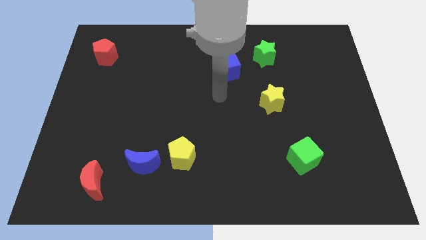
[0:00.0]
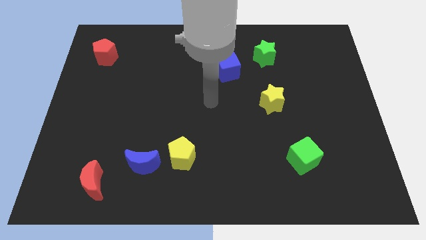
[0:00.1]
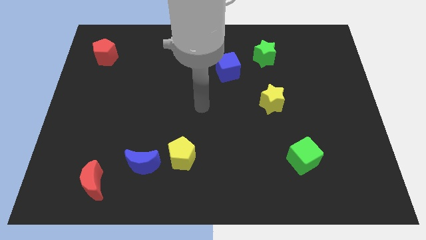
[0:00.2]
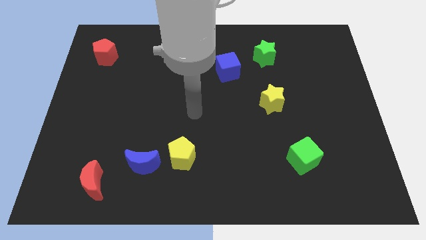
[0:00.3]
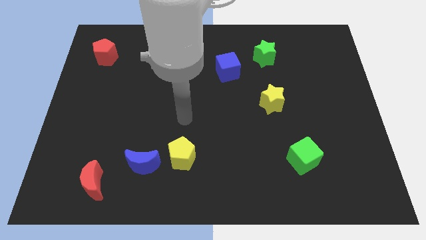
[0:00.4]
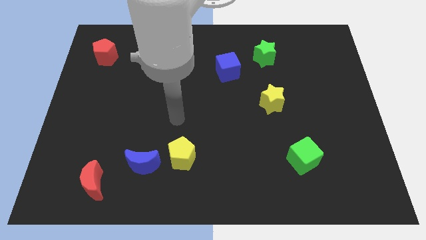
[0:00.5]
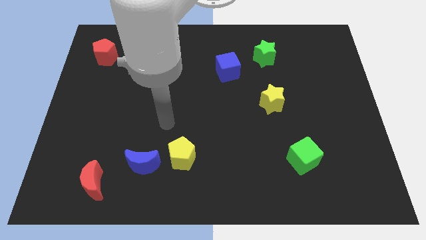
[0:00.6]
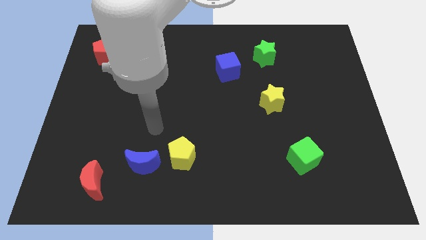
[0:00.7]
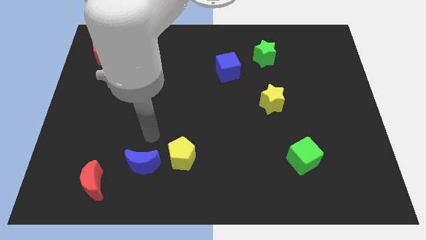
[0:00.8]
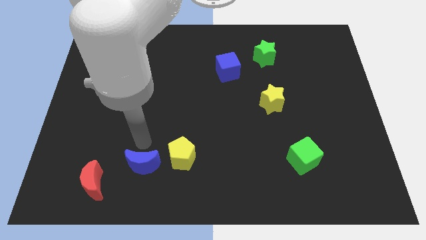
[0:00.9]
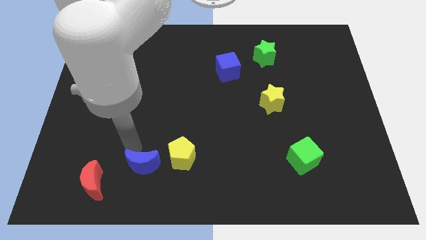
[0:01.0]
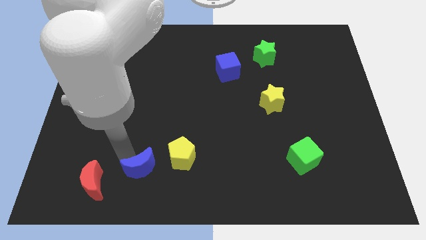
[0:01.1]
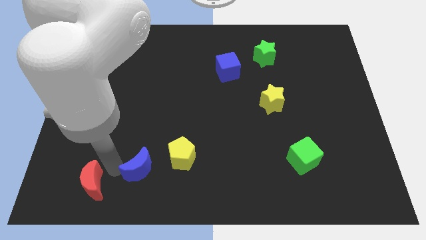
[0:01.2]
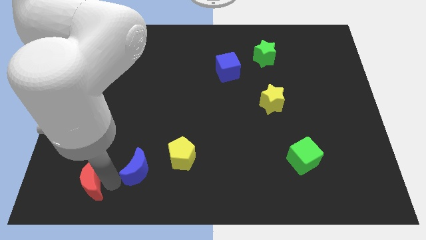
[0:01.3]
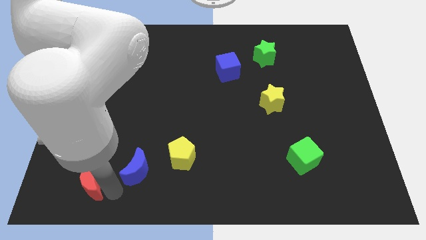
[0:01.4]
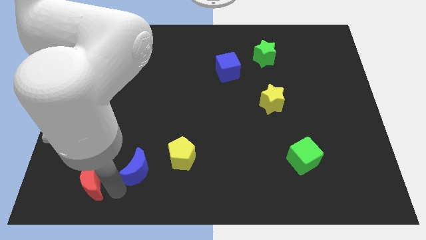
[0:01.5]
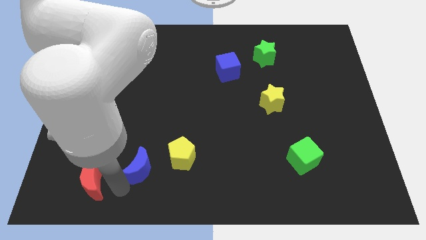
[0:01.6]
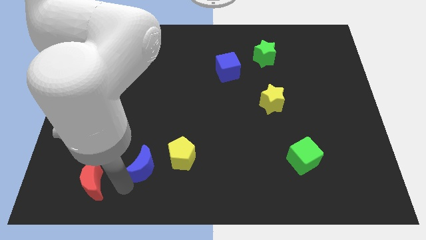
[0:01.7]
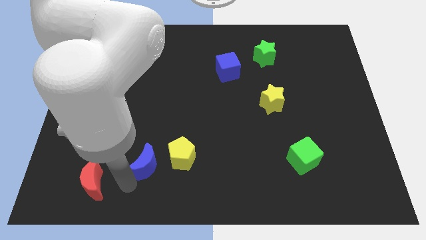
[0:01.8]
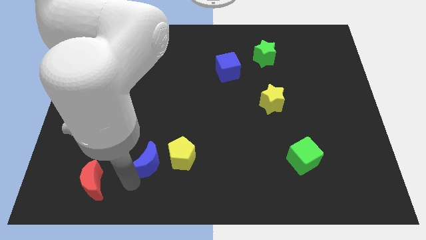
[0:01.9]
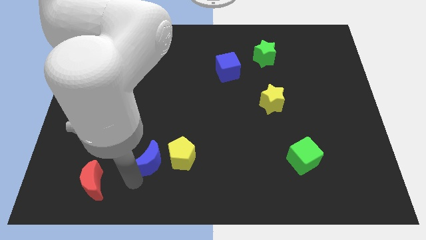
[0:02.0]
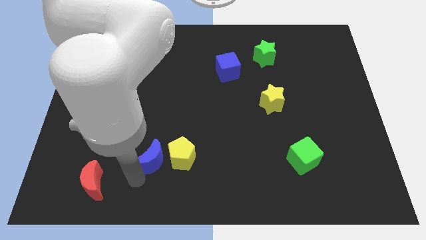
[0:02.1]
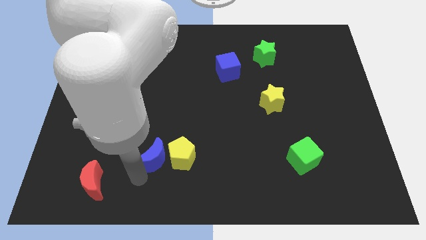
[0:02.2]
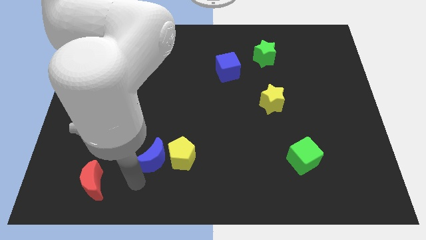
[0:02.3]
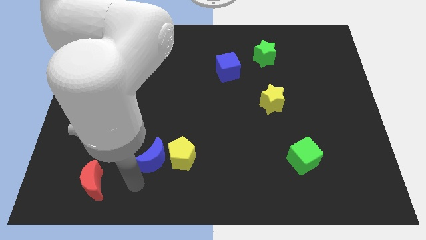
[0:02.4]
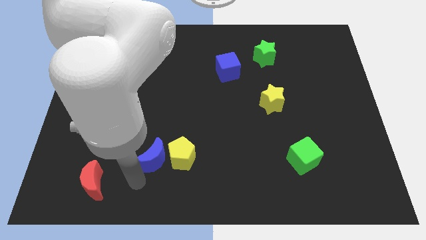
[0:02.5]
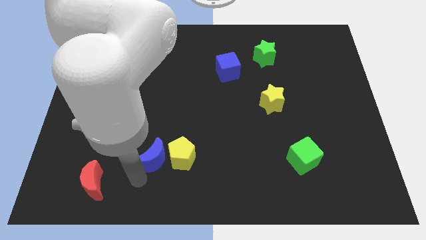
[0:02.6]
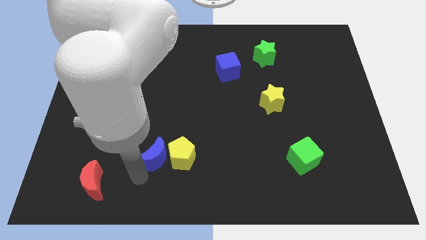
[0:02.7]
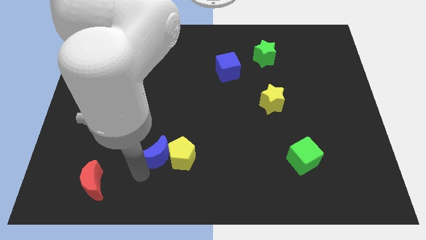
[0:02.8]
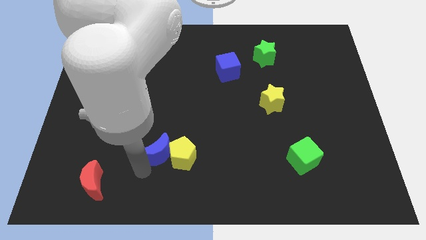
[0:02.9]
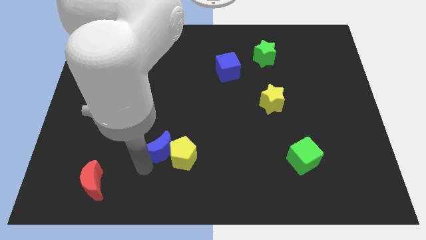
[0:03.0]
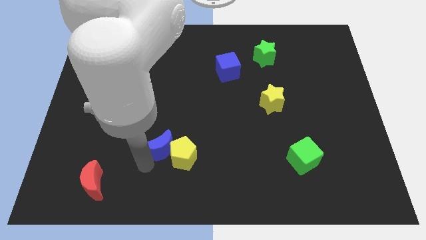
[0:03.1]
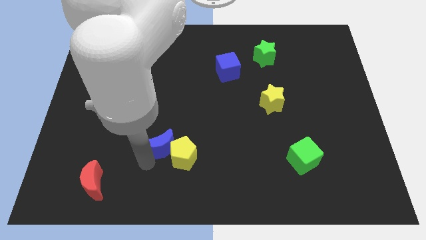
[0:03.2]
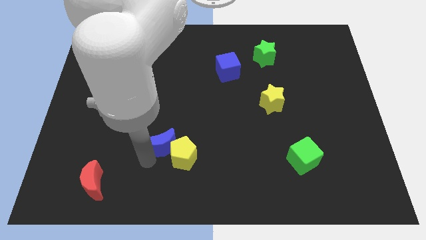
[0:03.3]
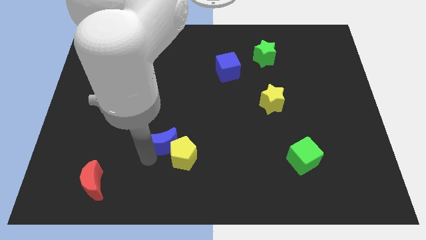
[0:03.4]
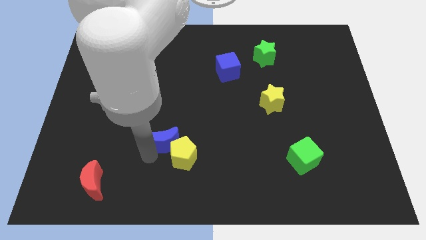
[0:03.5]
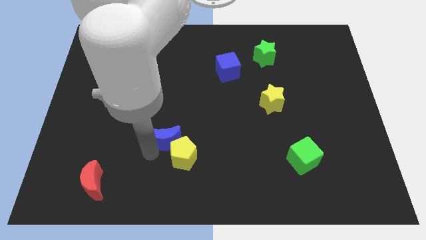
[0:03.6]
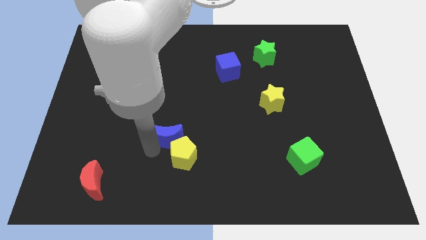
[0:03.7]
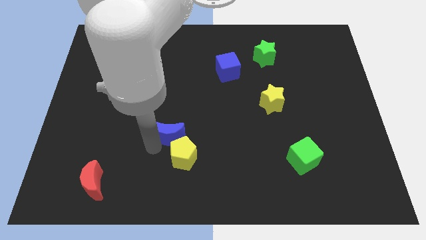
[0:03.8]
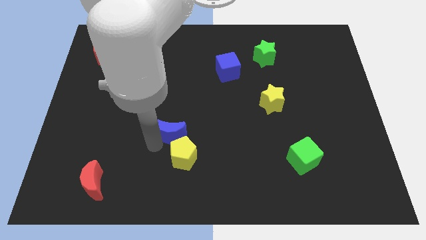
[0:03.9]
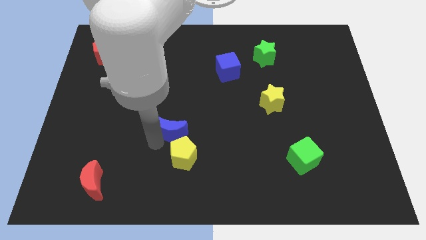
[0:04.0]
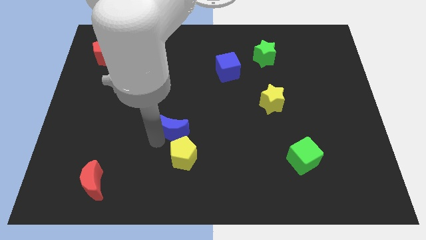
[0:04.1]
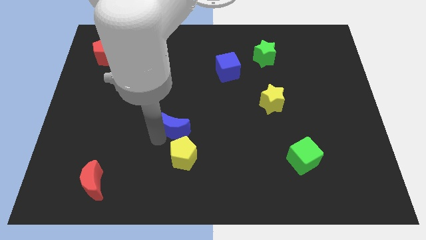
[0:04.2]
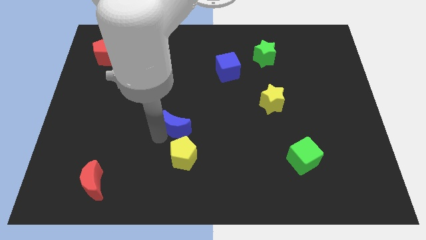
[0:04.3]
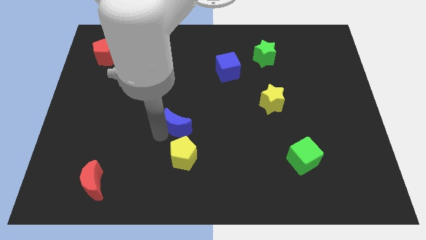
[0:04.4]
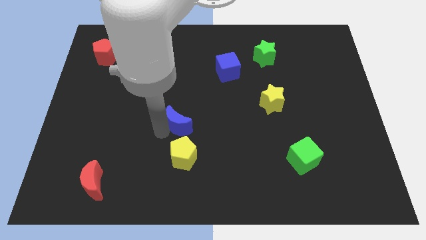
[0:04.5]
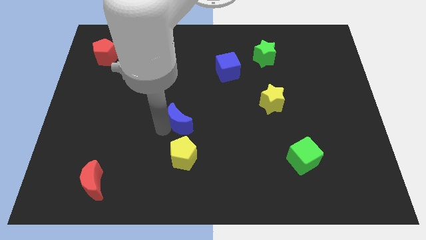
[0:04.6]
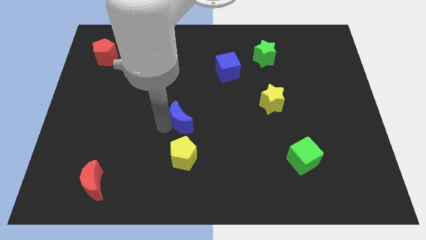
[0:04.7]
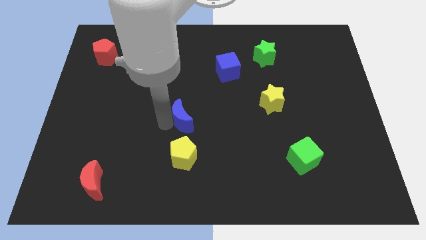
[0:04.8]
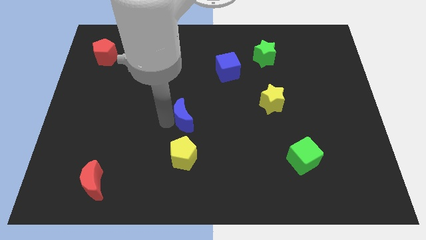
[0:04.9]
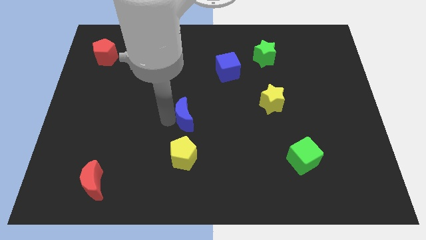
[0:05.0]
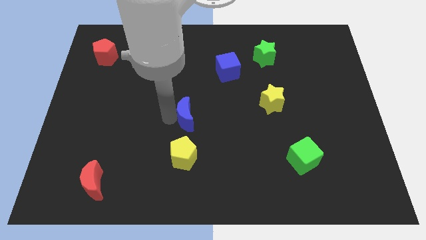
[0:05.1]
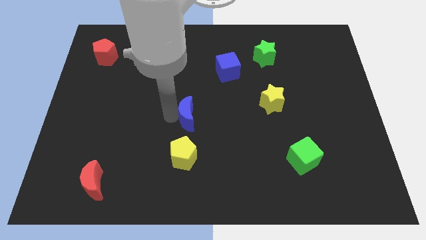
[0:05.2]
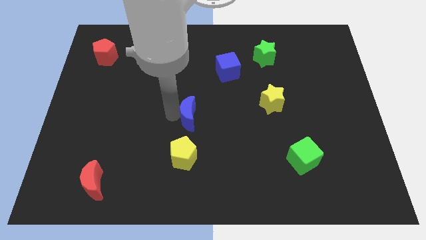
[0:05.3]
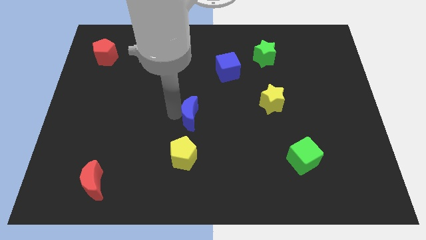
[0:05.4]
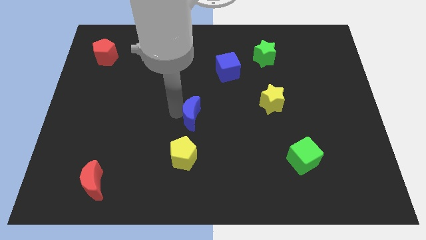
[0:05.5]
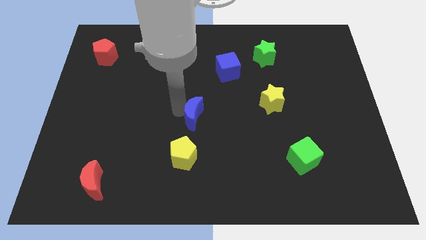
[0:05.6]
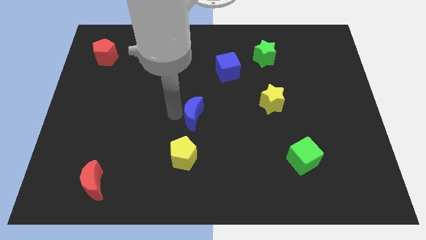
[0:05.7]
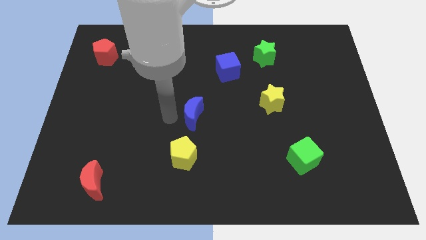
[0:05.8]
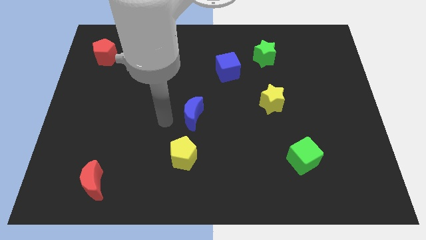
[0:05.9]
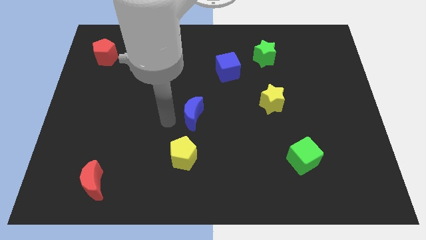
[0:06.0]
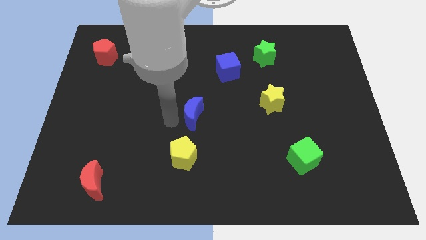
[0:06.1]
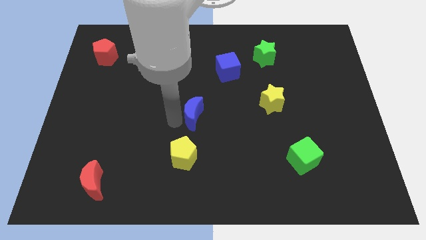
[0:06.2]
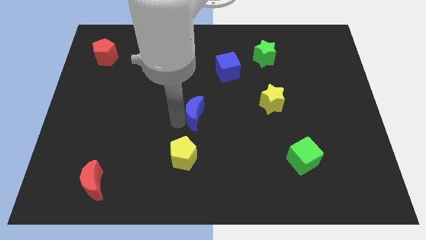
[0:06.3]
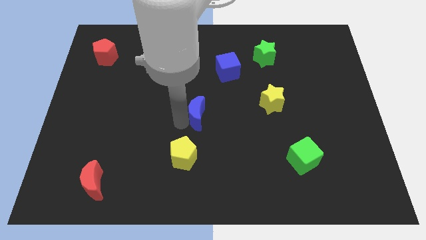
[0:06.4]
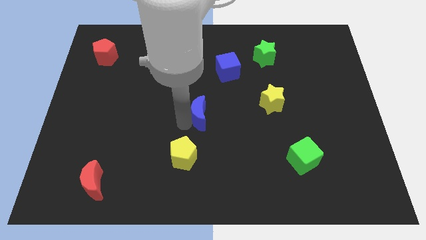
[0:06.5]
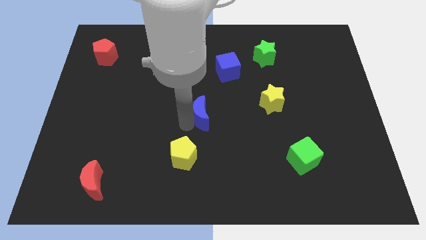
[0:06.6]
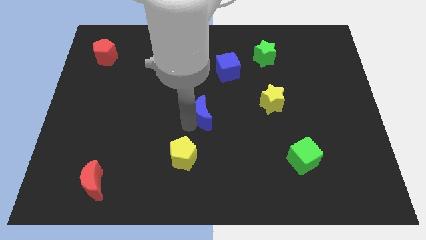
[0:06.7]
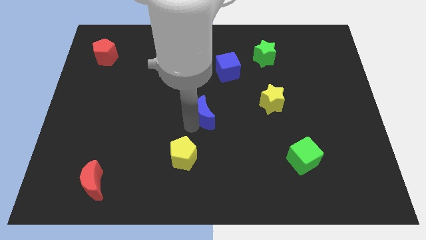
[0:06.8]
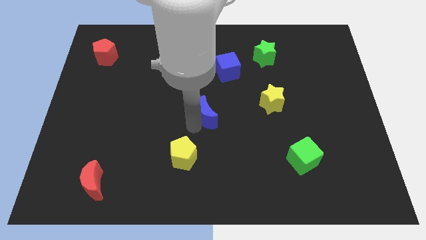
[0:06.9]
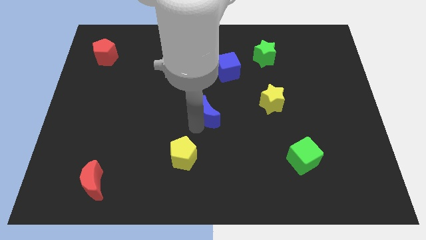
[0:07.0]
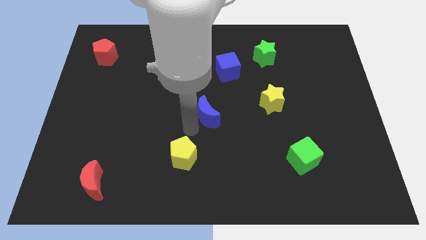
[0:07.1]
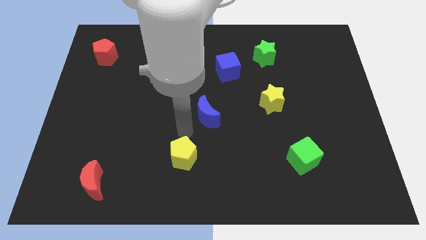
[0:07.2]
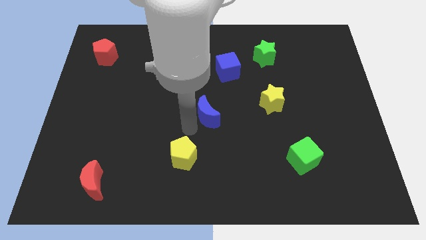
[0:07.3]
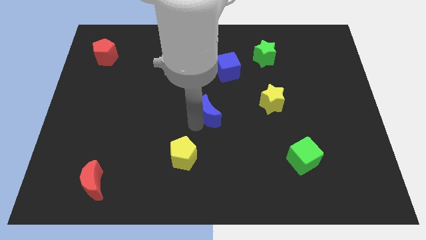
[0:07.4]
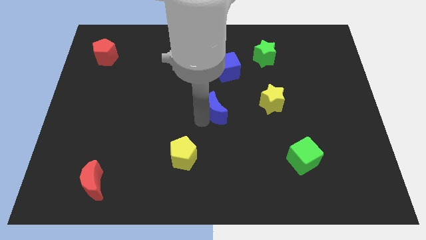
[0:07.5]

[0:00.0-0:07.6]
slide the blue moon left of the yellow star

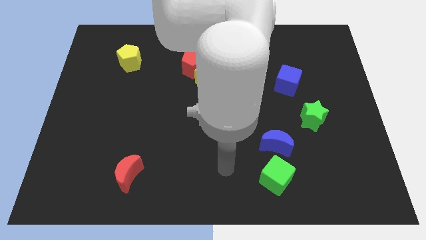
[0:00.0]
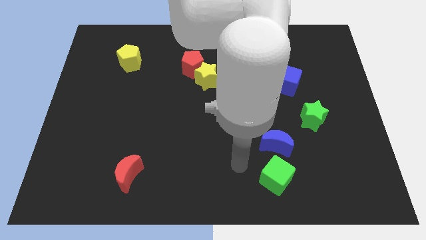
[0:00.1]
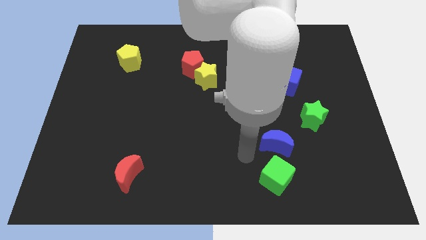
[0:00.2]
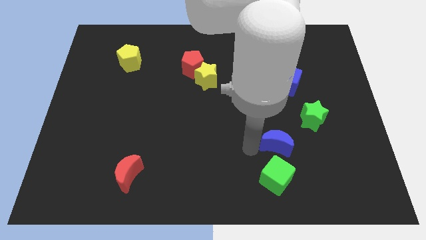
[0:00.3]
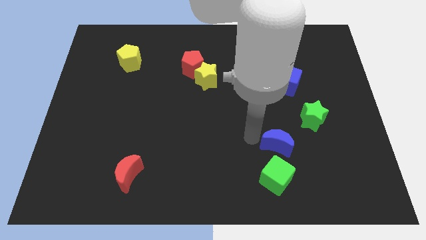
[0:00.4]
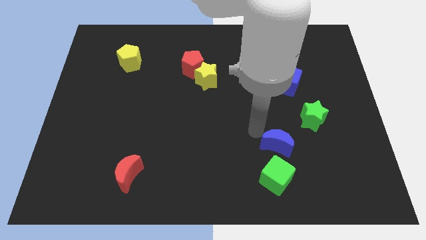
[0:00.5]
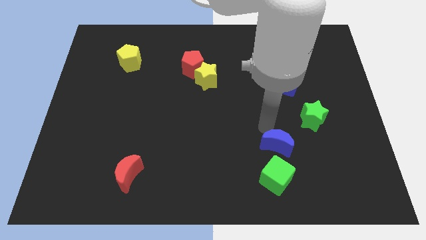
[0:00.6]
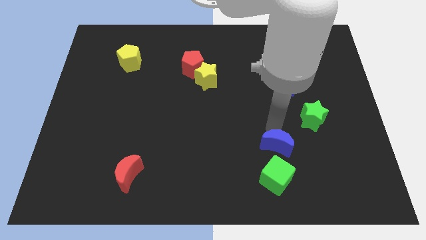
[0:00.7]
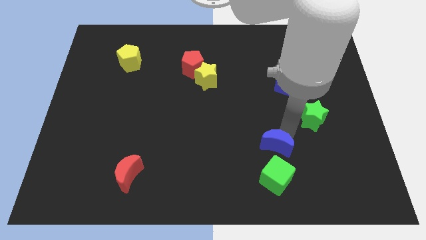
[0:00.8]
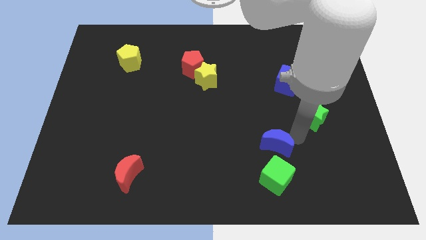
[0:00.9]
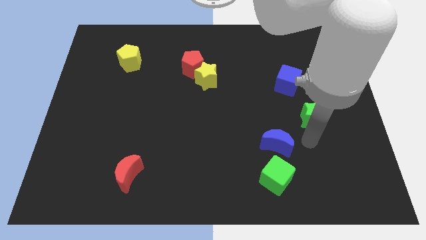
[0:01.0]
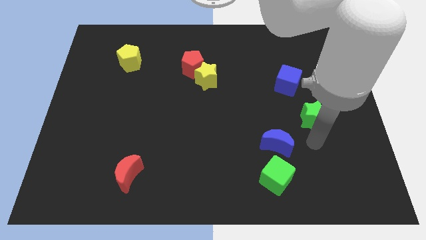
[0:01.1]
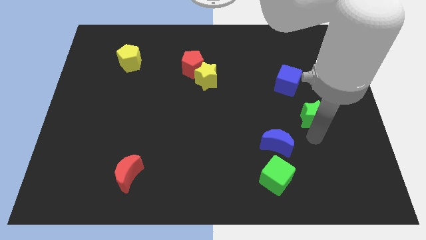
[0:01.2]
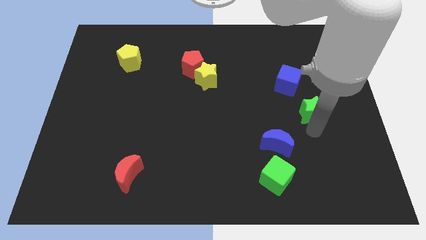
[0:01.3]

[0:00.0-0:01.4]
put the green star to the bottom right side of the blue cube
